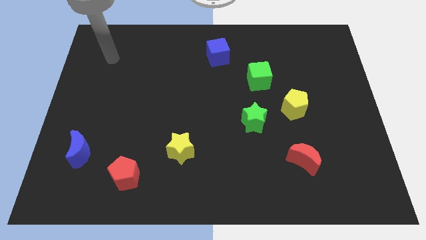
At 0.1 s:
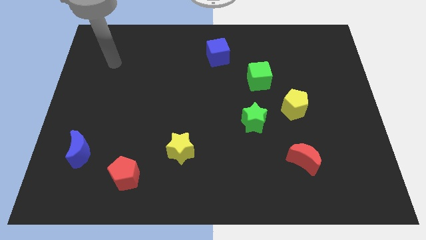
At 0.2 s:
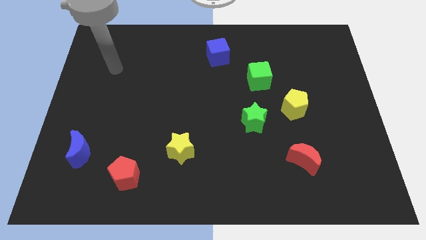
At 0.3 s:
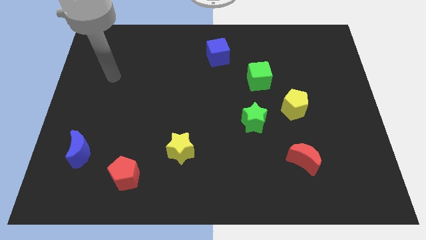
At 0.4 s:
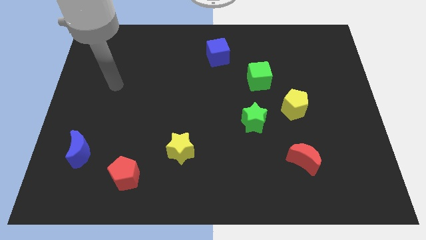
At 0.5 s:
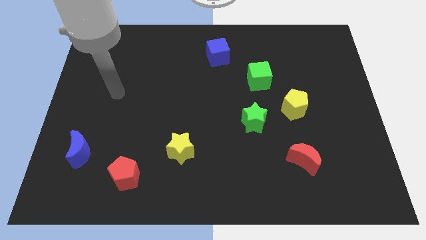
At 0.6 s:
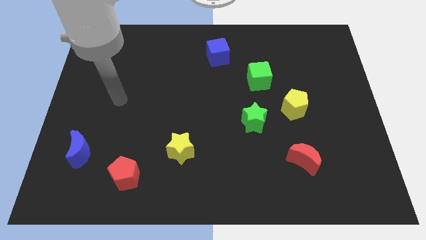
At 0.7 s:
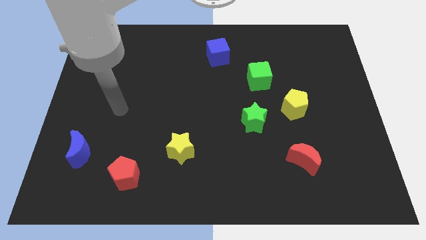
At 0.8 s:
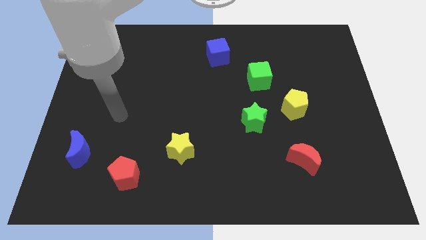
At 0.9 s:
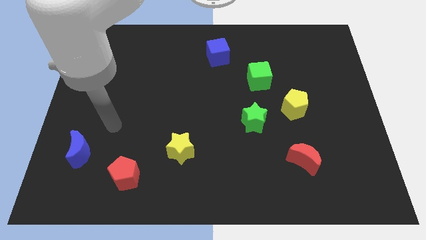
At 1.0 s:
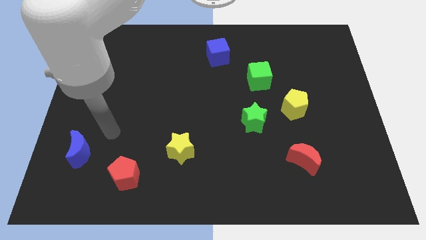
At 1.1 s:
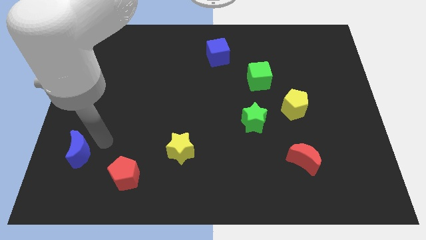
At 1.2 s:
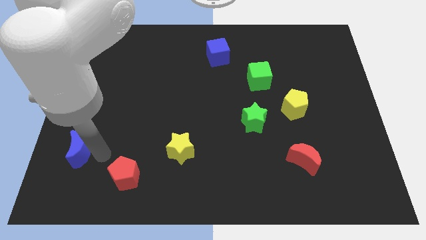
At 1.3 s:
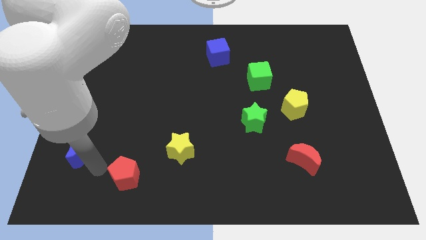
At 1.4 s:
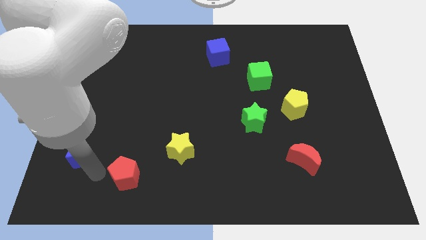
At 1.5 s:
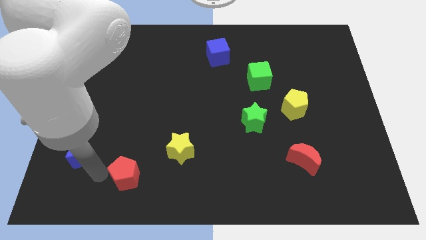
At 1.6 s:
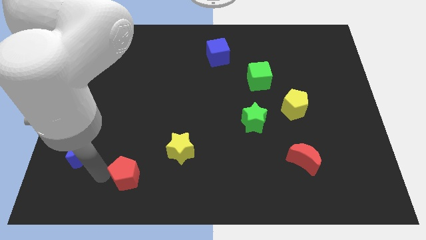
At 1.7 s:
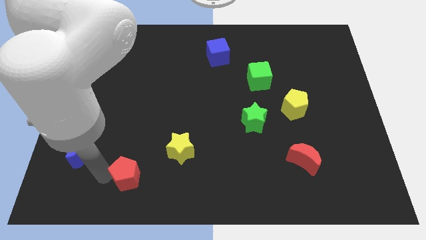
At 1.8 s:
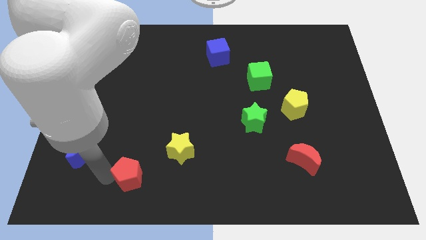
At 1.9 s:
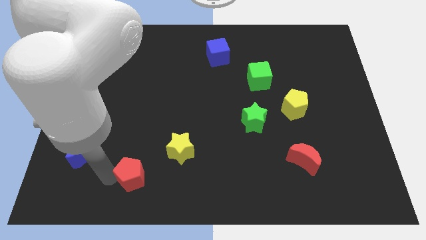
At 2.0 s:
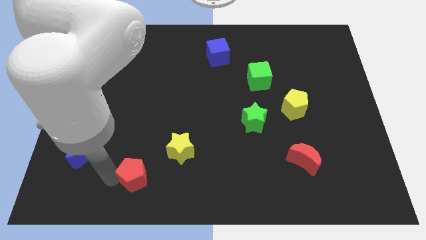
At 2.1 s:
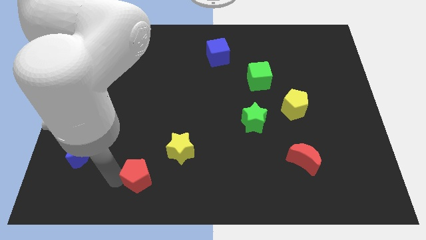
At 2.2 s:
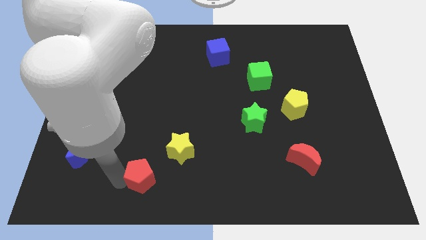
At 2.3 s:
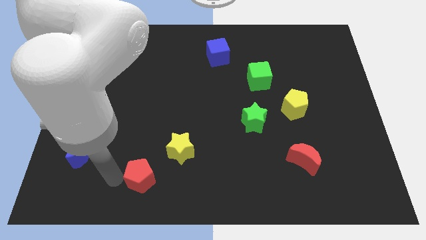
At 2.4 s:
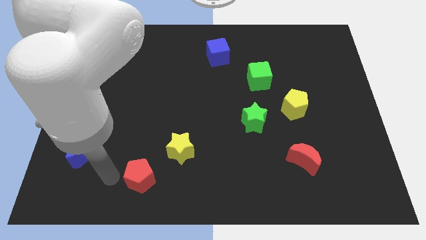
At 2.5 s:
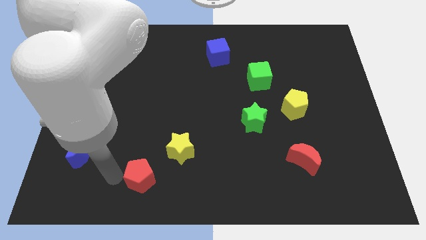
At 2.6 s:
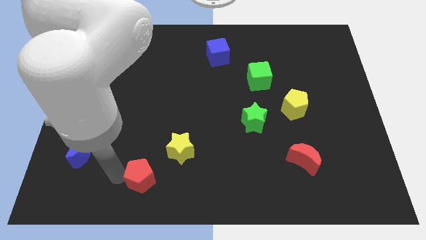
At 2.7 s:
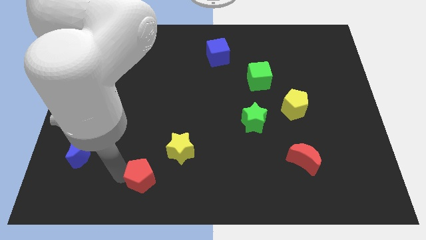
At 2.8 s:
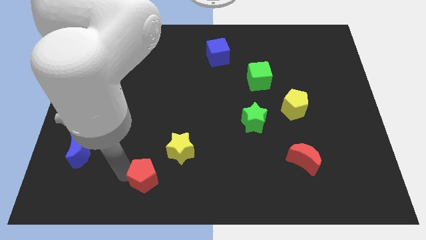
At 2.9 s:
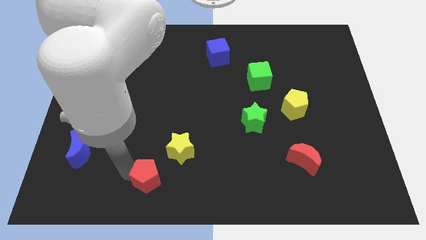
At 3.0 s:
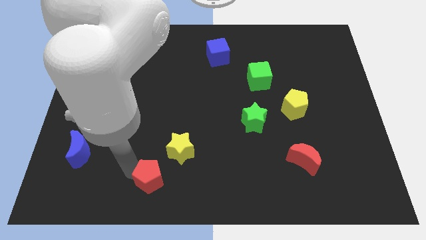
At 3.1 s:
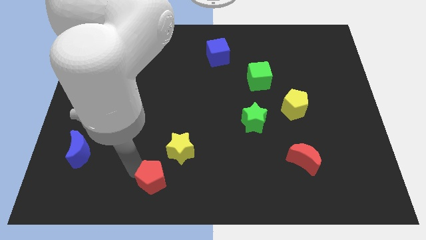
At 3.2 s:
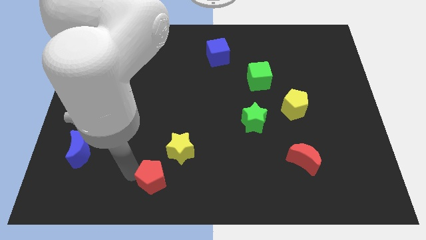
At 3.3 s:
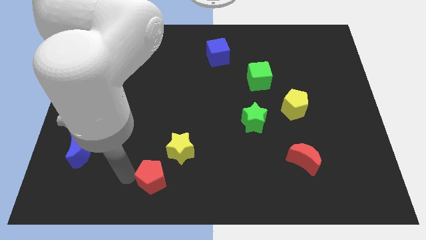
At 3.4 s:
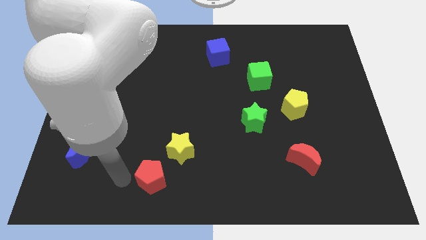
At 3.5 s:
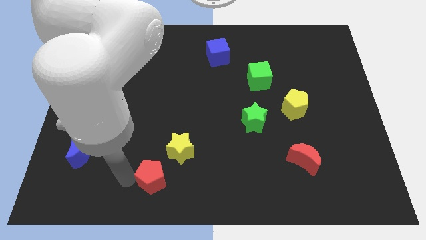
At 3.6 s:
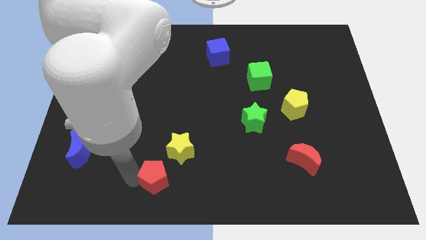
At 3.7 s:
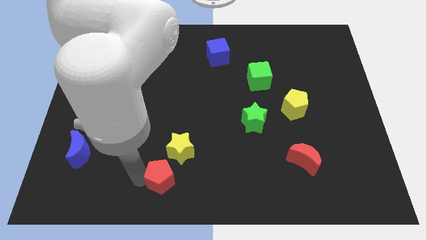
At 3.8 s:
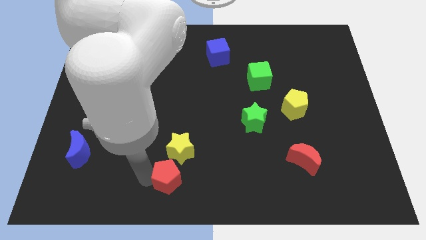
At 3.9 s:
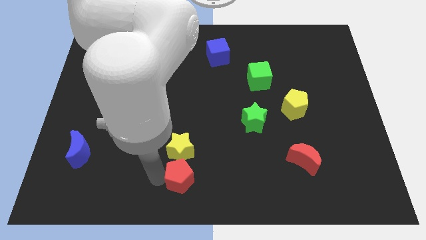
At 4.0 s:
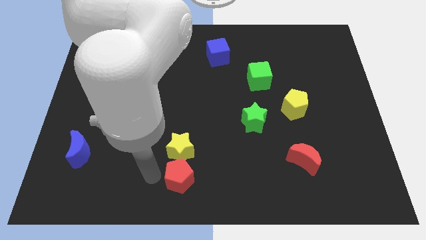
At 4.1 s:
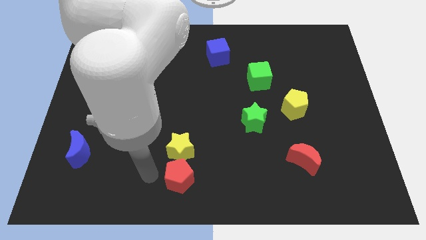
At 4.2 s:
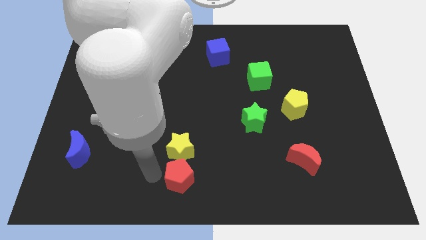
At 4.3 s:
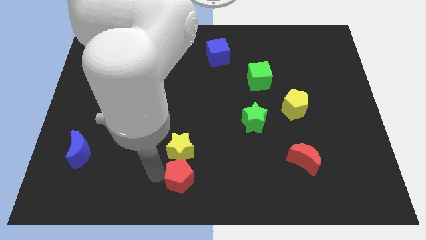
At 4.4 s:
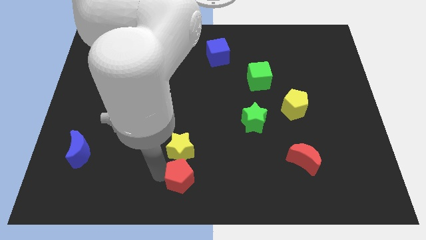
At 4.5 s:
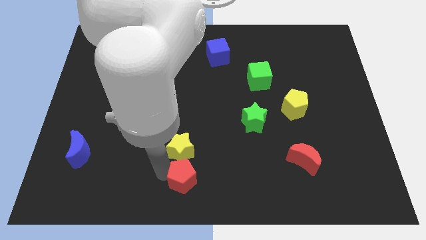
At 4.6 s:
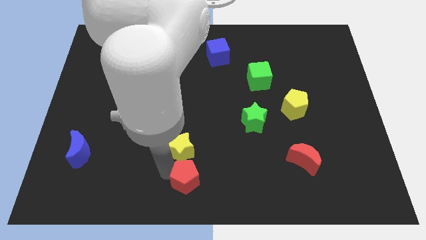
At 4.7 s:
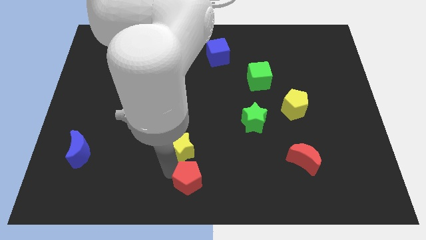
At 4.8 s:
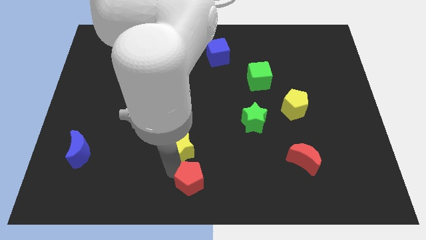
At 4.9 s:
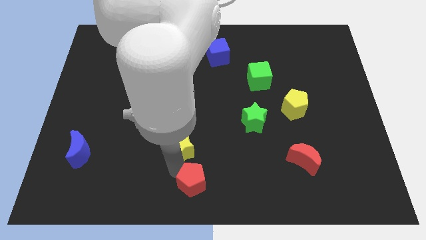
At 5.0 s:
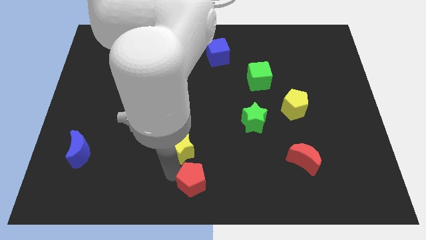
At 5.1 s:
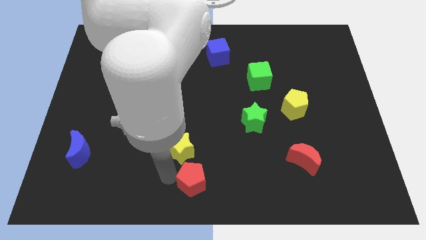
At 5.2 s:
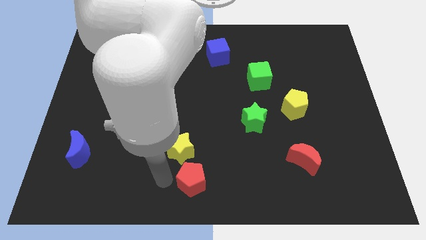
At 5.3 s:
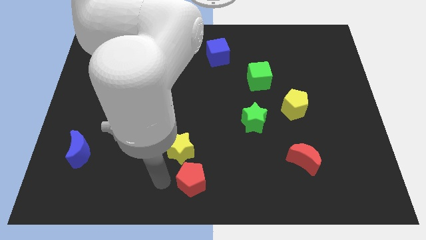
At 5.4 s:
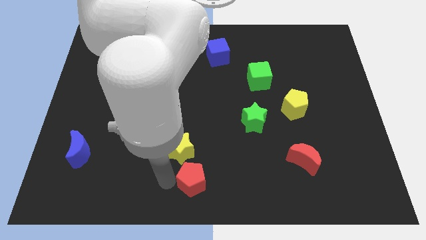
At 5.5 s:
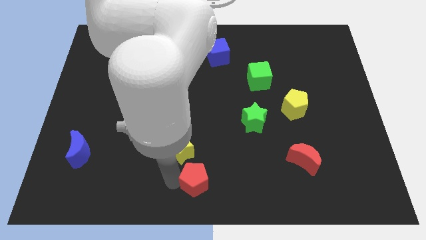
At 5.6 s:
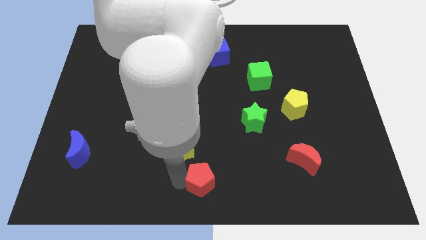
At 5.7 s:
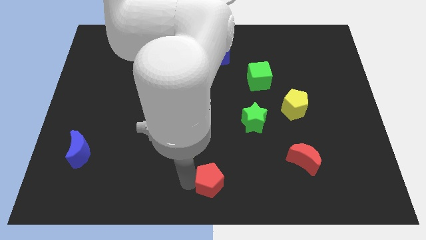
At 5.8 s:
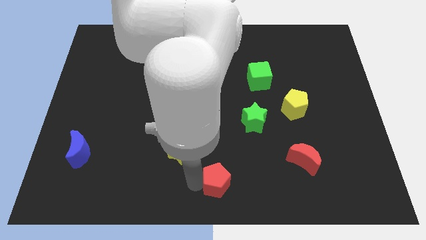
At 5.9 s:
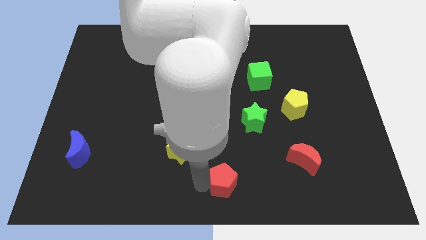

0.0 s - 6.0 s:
move the red pentagon to the right

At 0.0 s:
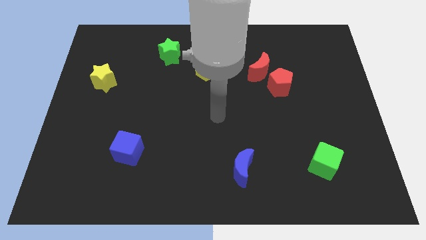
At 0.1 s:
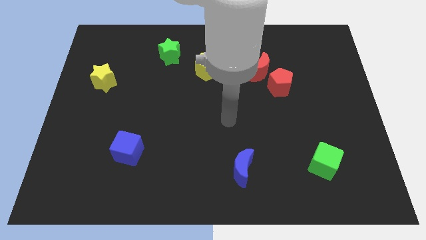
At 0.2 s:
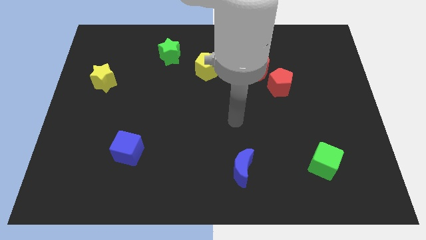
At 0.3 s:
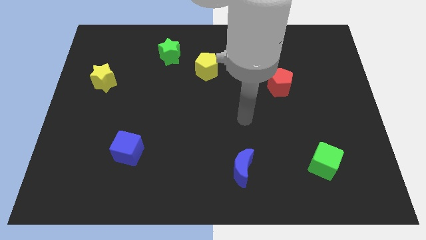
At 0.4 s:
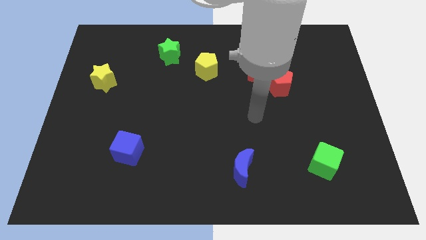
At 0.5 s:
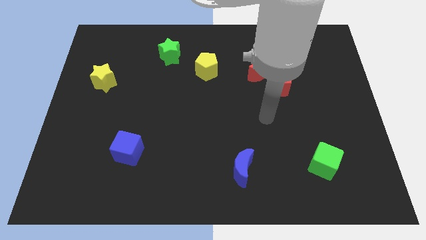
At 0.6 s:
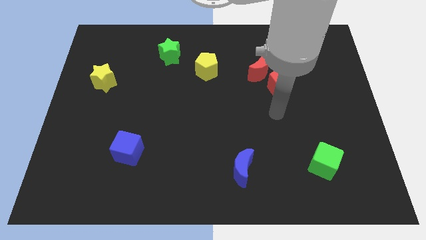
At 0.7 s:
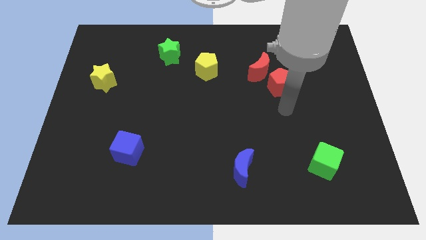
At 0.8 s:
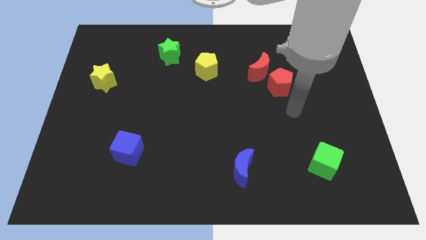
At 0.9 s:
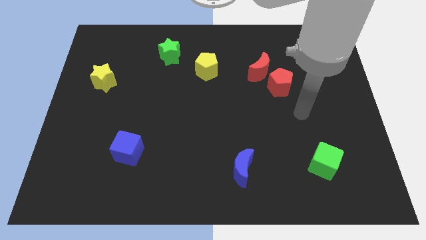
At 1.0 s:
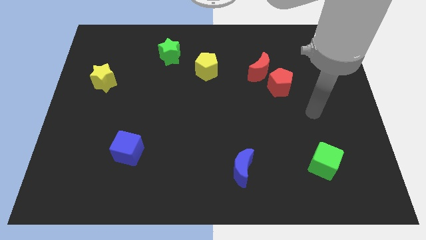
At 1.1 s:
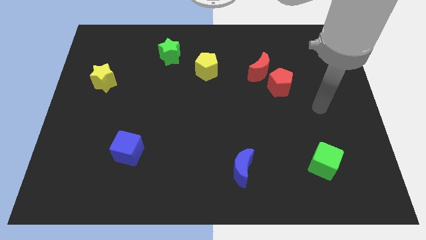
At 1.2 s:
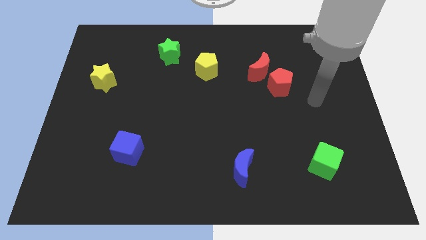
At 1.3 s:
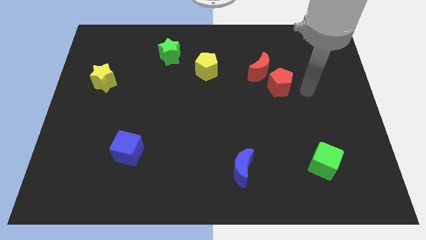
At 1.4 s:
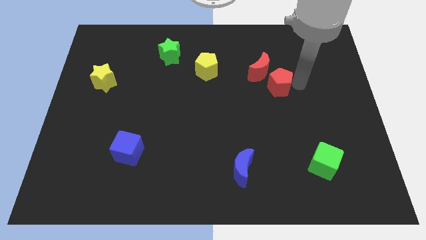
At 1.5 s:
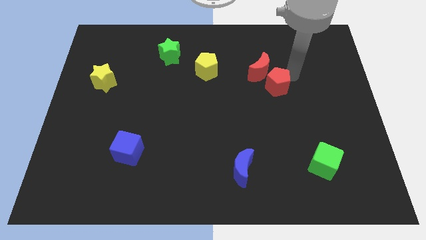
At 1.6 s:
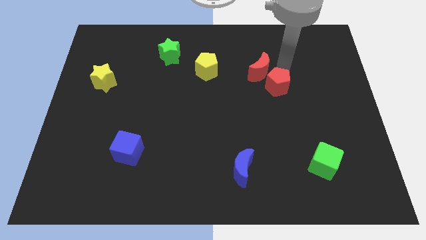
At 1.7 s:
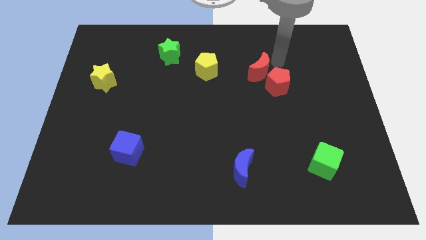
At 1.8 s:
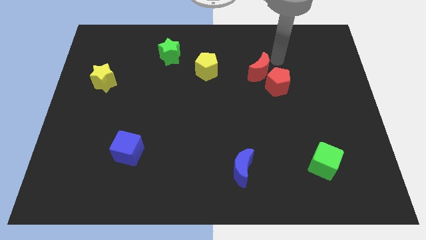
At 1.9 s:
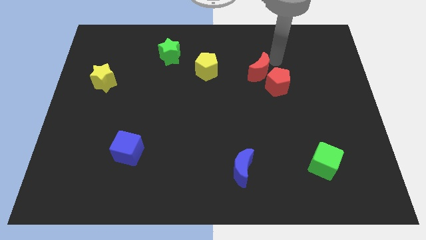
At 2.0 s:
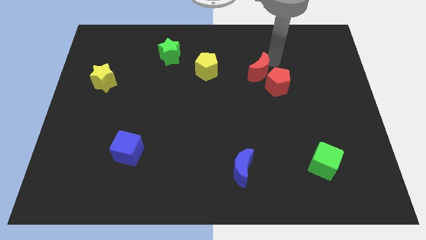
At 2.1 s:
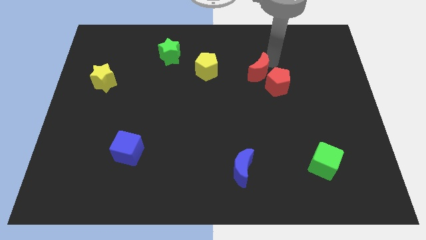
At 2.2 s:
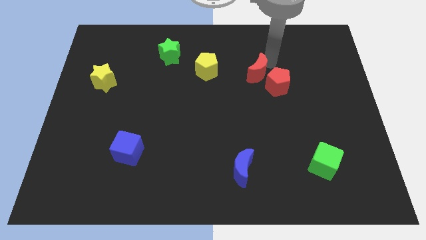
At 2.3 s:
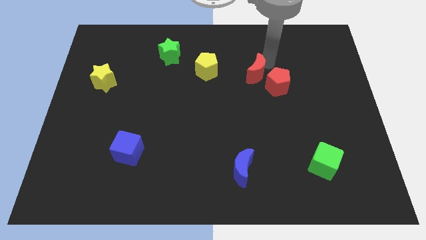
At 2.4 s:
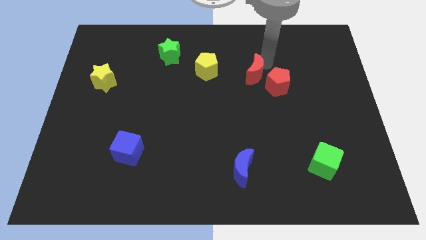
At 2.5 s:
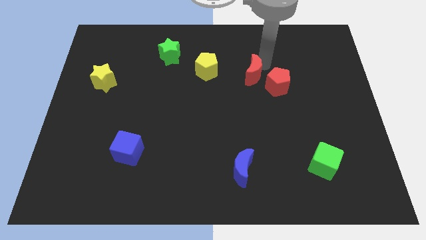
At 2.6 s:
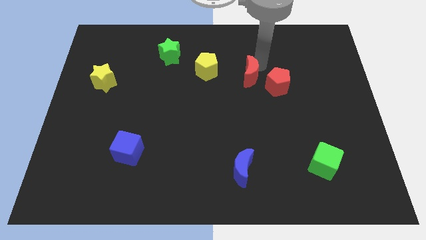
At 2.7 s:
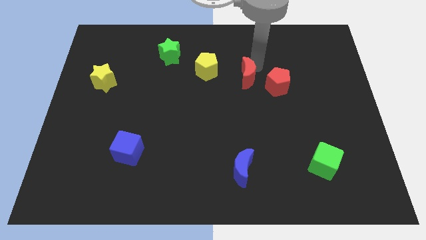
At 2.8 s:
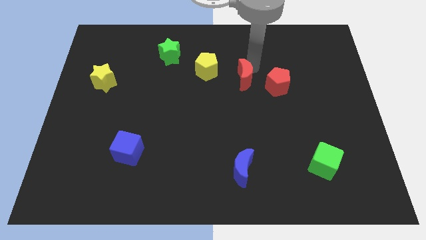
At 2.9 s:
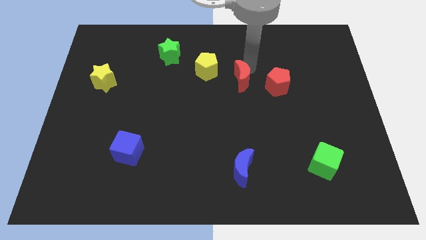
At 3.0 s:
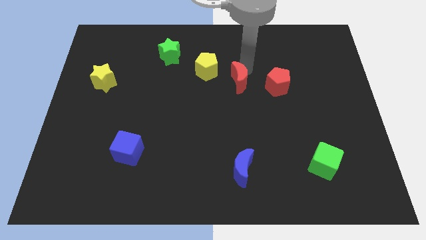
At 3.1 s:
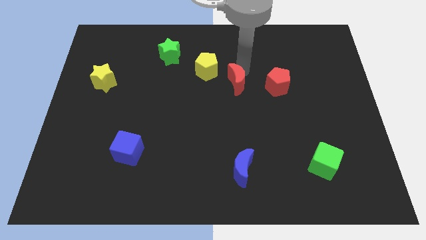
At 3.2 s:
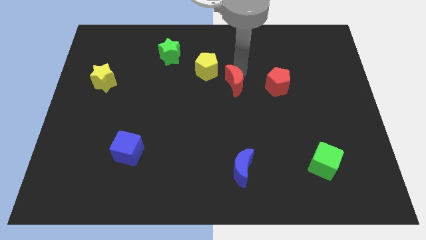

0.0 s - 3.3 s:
push the red moon somewhat down and left
